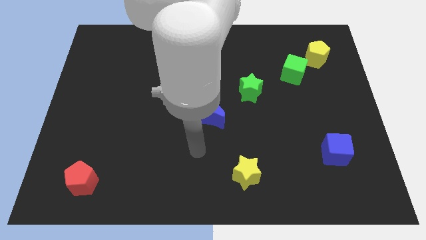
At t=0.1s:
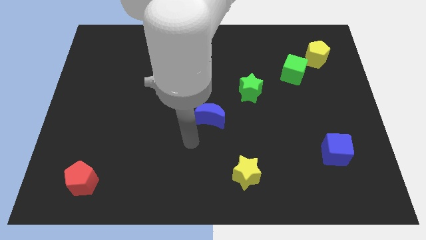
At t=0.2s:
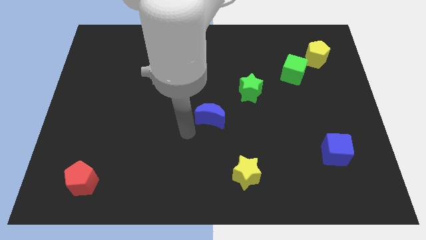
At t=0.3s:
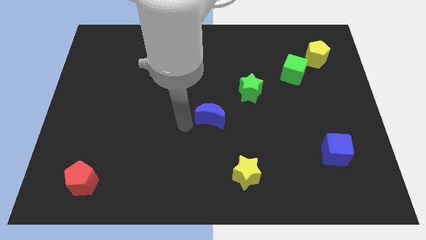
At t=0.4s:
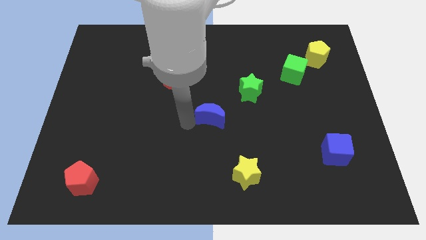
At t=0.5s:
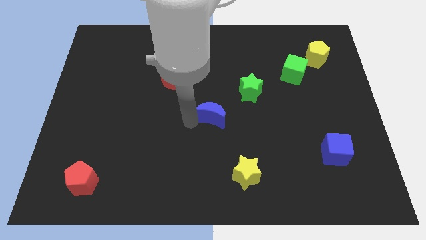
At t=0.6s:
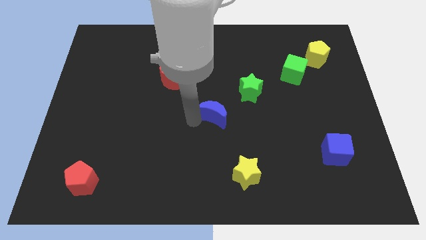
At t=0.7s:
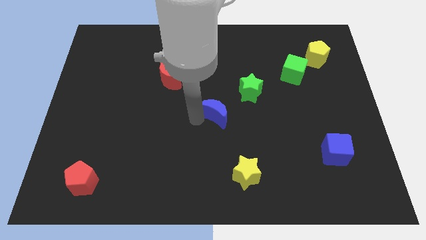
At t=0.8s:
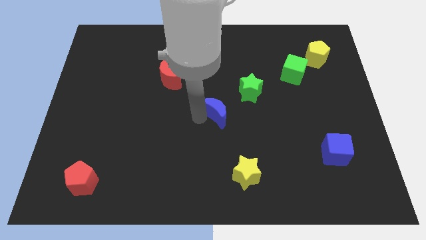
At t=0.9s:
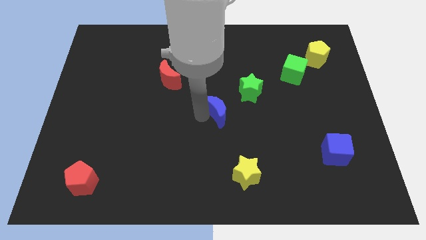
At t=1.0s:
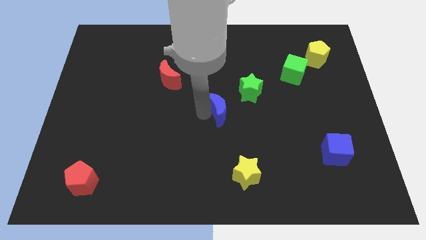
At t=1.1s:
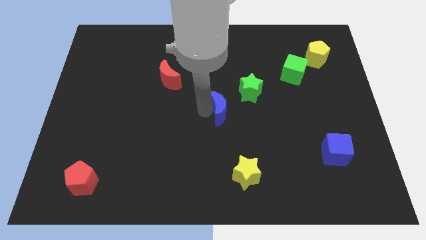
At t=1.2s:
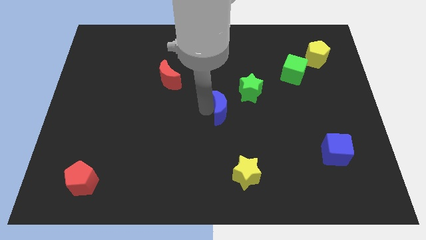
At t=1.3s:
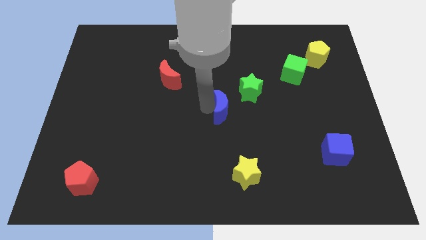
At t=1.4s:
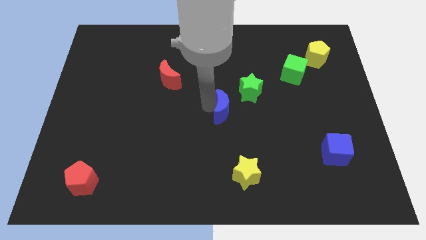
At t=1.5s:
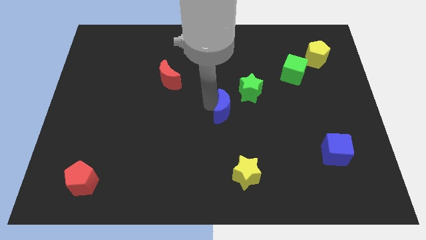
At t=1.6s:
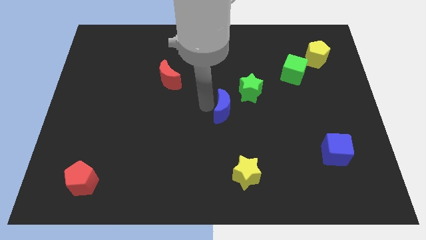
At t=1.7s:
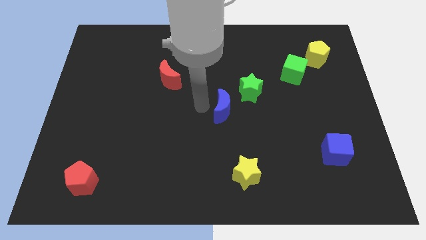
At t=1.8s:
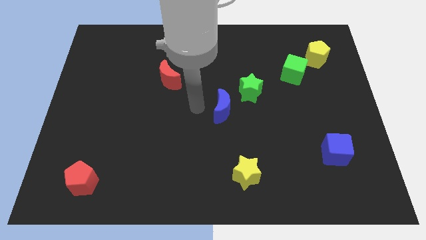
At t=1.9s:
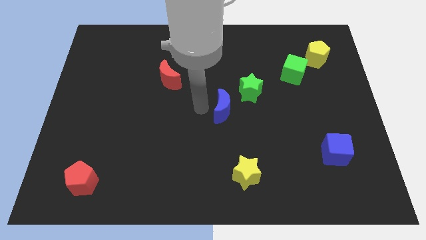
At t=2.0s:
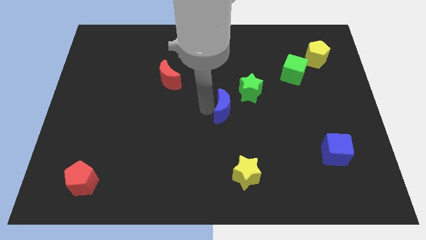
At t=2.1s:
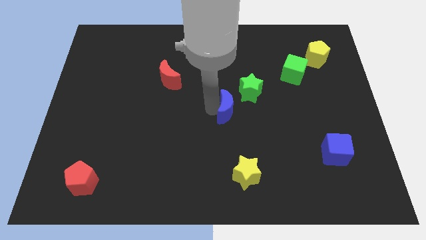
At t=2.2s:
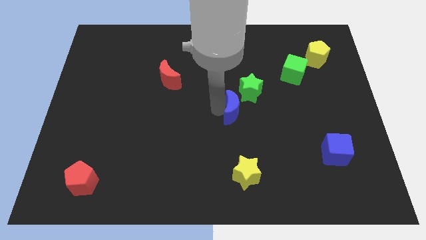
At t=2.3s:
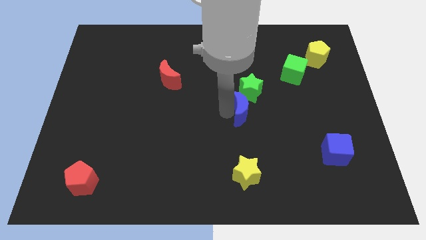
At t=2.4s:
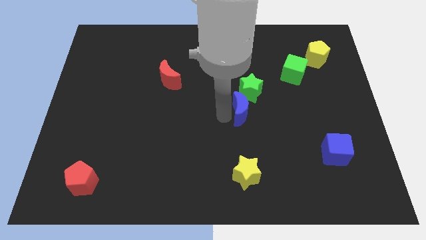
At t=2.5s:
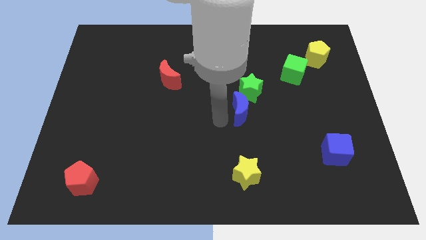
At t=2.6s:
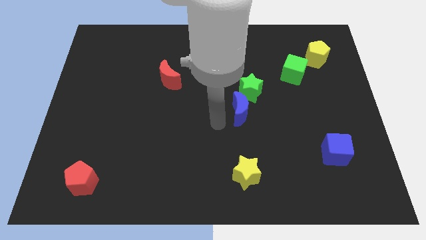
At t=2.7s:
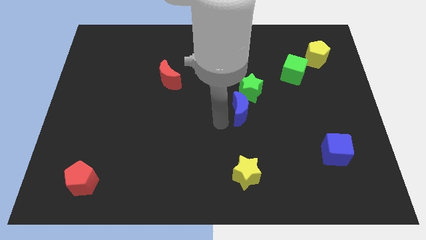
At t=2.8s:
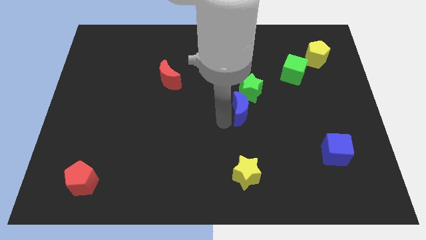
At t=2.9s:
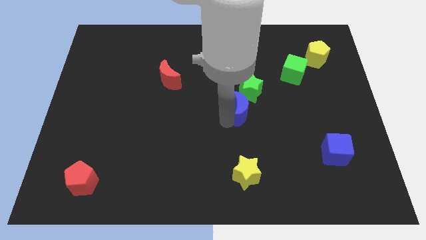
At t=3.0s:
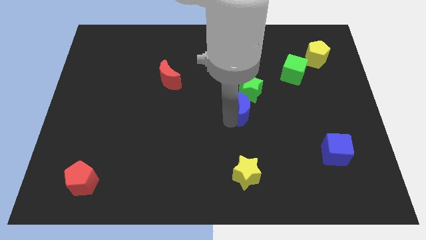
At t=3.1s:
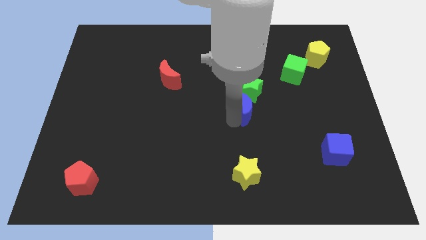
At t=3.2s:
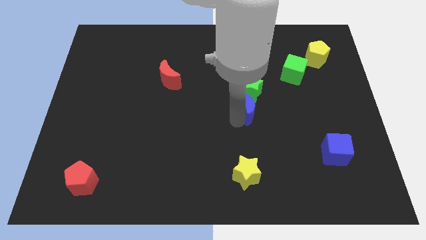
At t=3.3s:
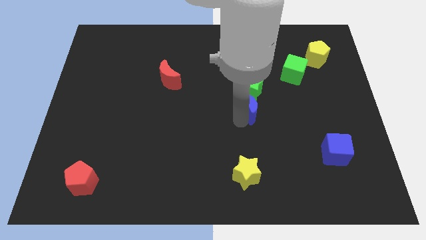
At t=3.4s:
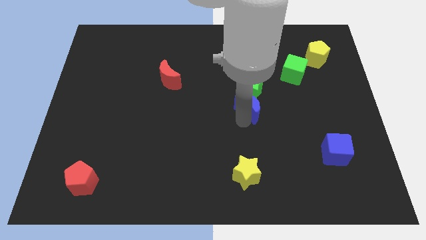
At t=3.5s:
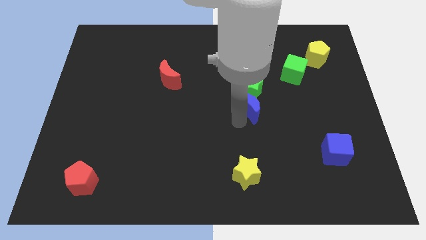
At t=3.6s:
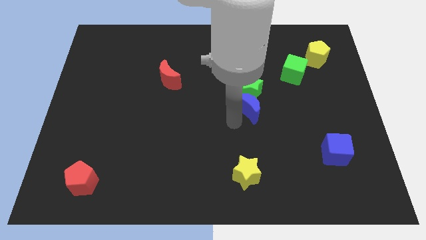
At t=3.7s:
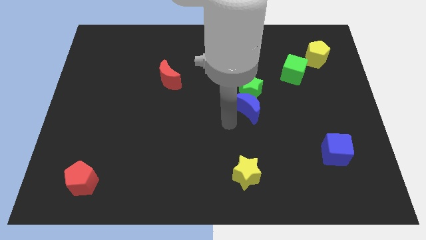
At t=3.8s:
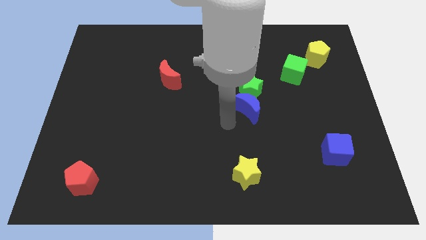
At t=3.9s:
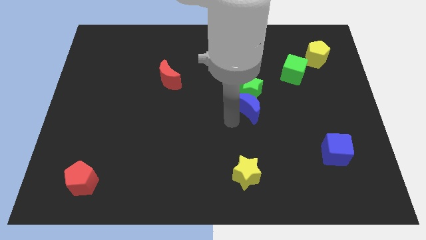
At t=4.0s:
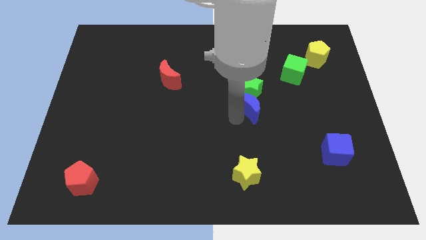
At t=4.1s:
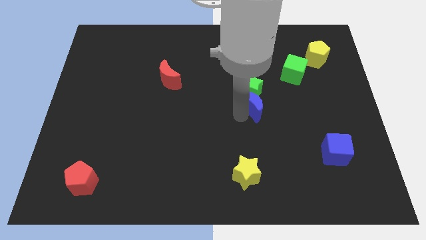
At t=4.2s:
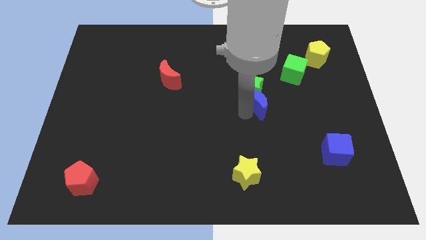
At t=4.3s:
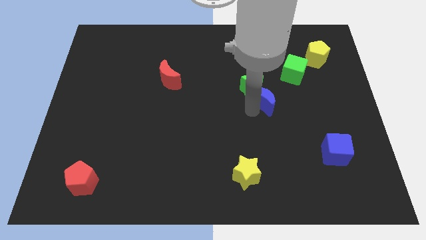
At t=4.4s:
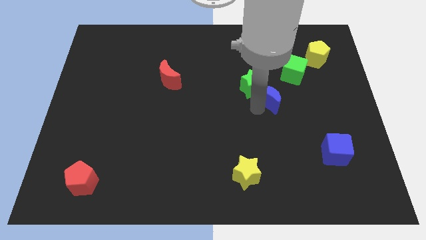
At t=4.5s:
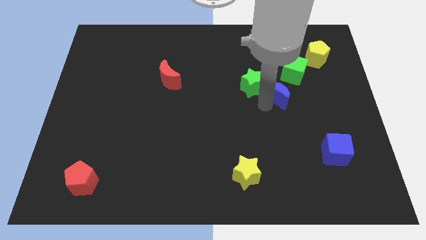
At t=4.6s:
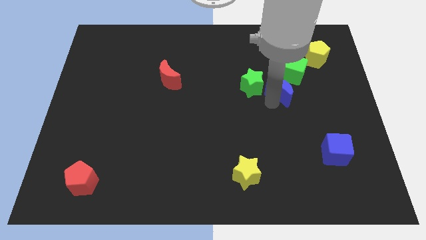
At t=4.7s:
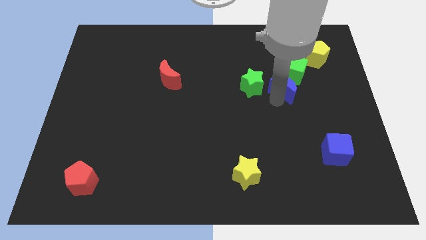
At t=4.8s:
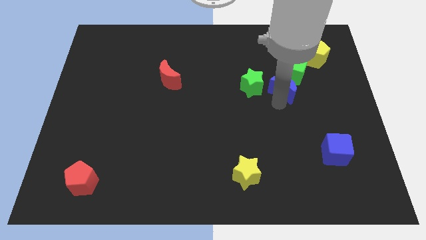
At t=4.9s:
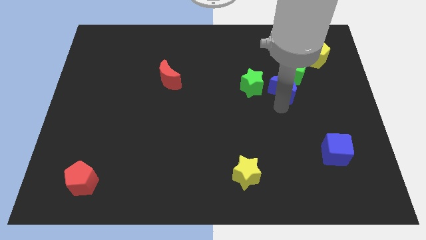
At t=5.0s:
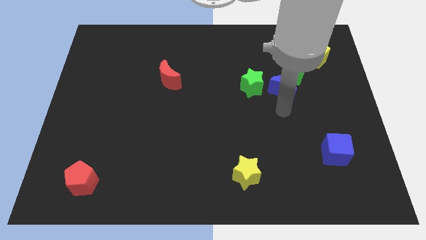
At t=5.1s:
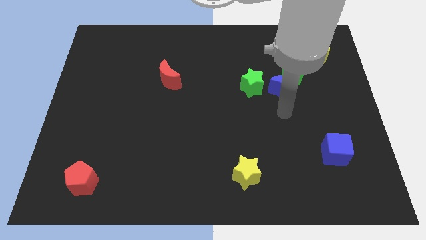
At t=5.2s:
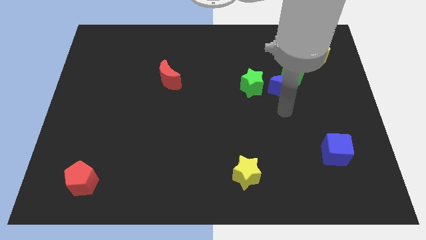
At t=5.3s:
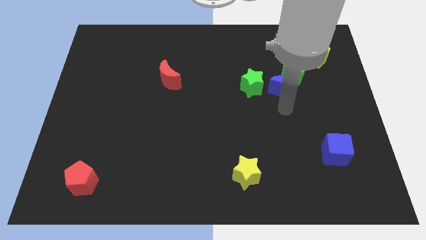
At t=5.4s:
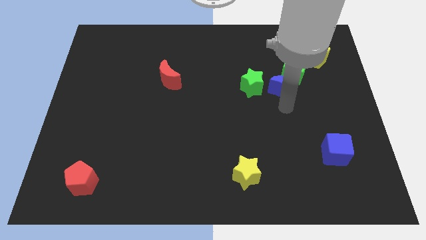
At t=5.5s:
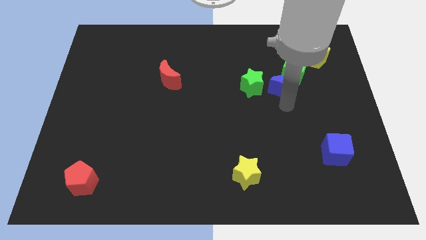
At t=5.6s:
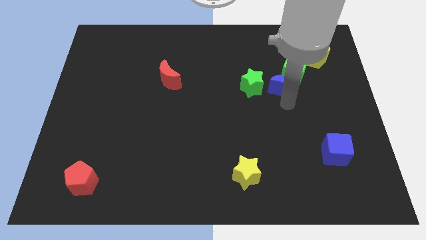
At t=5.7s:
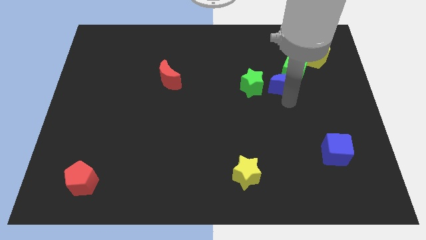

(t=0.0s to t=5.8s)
move the blue moon close to the green cube
